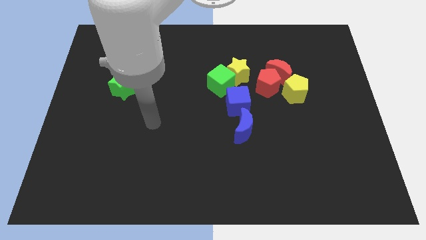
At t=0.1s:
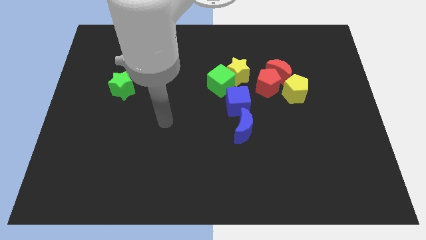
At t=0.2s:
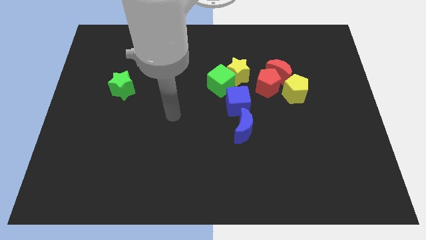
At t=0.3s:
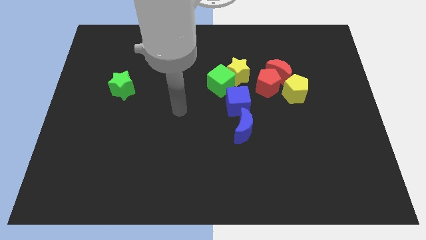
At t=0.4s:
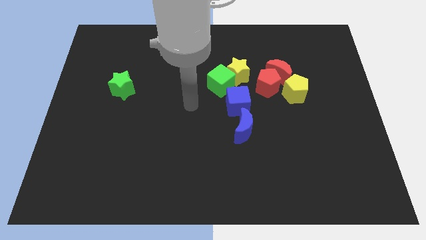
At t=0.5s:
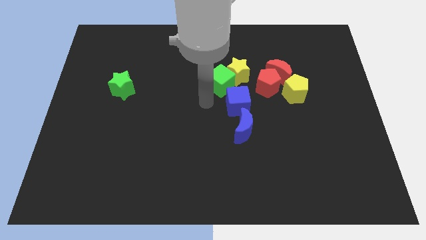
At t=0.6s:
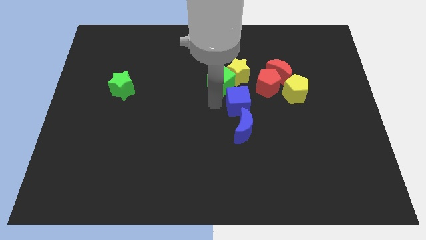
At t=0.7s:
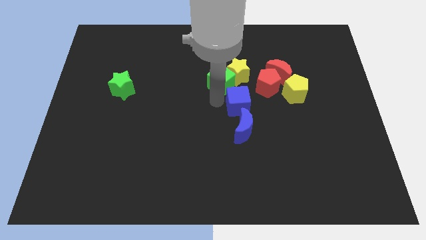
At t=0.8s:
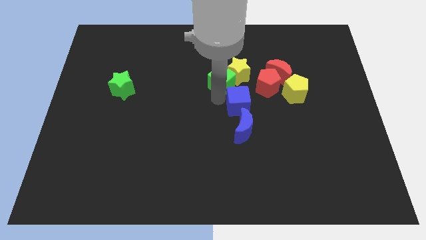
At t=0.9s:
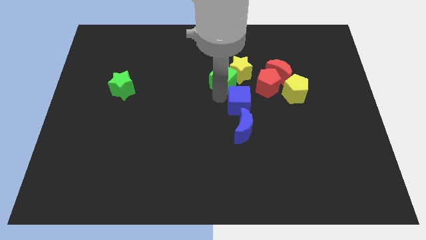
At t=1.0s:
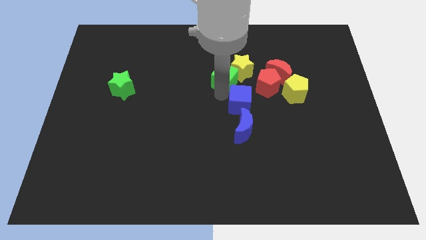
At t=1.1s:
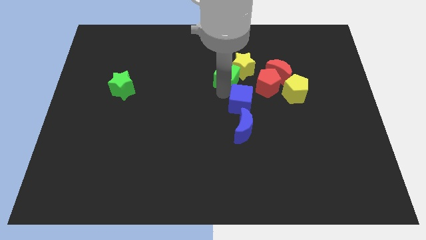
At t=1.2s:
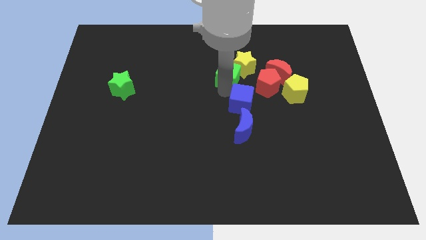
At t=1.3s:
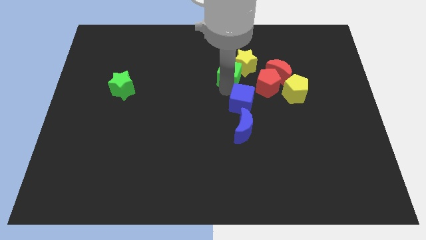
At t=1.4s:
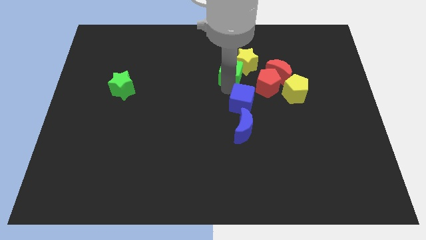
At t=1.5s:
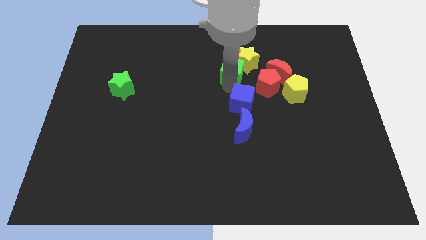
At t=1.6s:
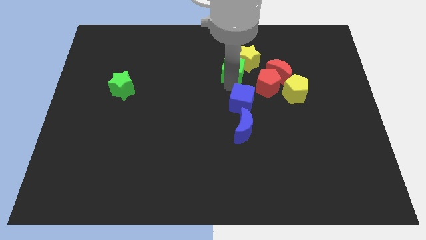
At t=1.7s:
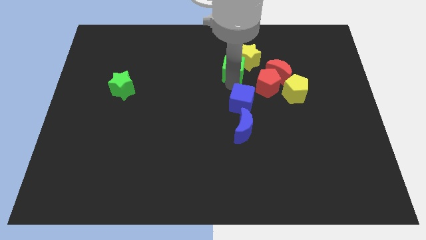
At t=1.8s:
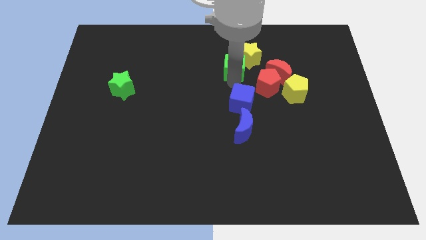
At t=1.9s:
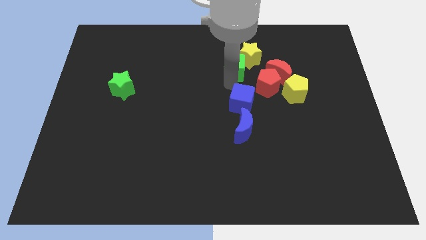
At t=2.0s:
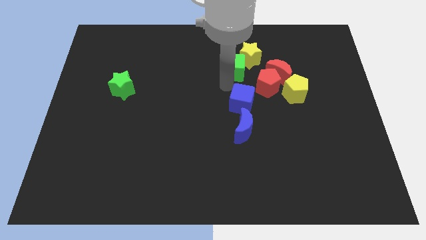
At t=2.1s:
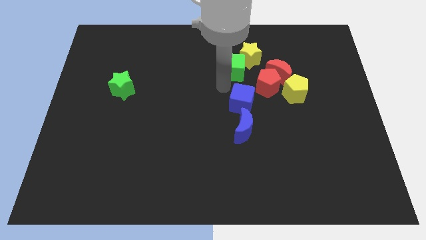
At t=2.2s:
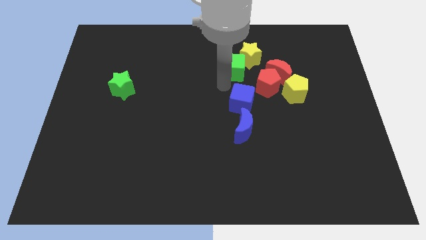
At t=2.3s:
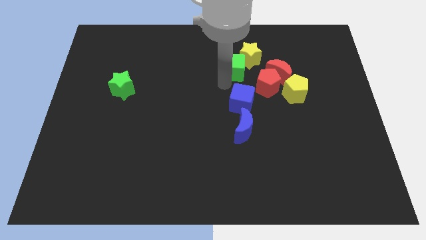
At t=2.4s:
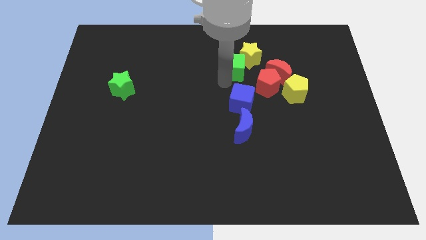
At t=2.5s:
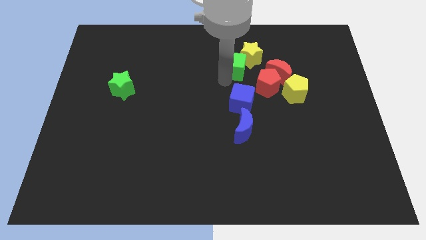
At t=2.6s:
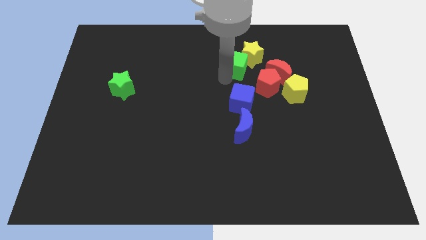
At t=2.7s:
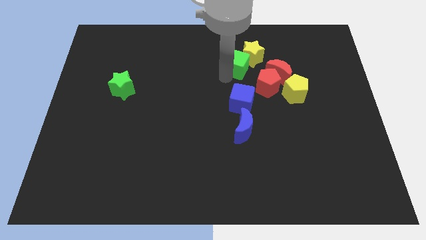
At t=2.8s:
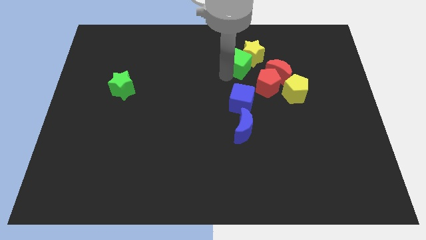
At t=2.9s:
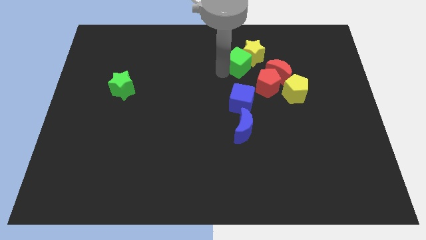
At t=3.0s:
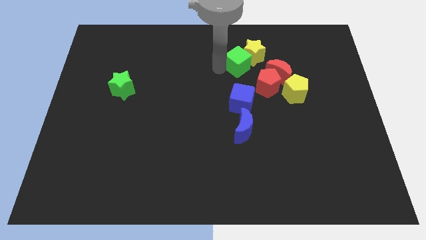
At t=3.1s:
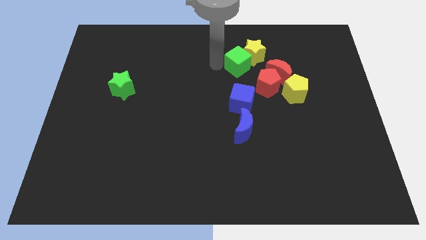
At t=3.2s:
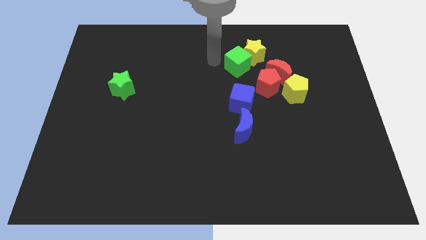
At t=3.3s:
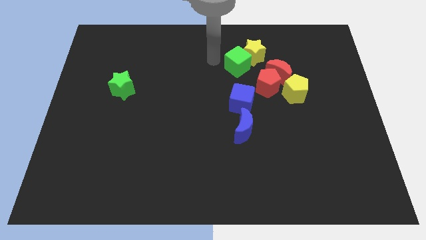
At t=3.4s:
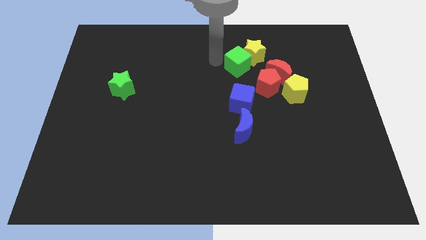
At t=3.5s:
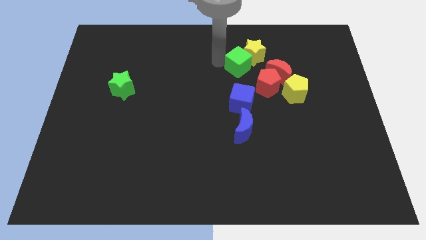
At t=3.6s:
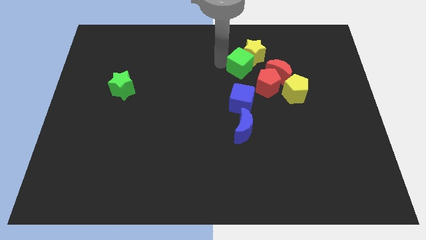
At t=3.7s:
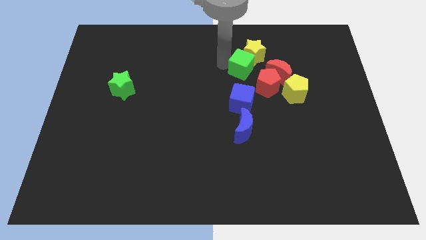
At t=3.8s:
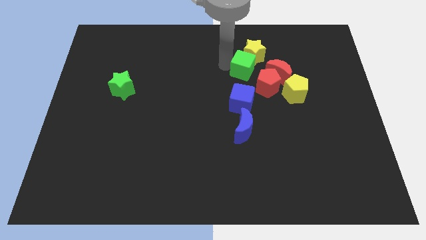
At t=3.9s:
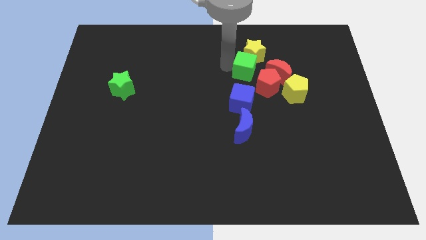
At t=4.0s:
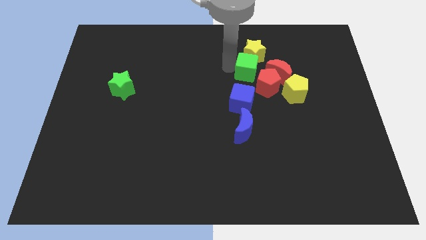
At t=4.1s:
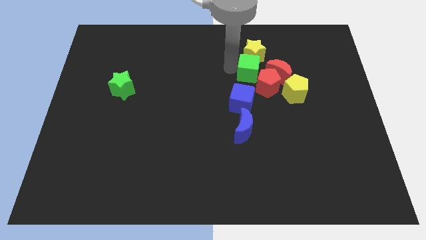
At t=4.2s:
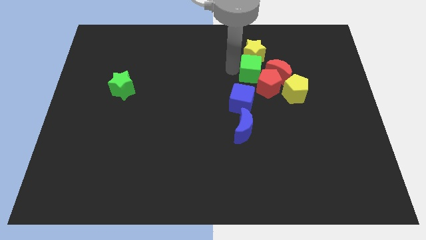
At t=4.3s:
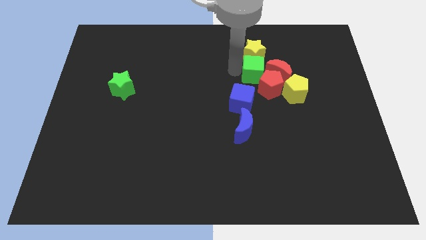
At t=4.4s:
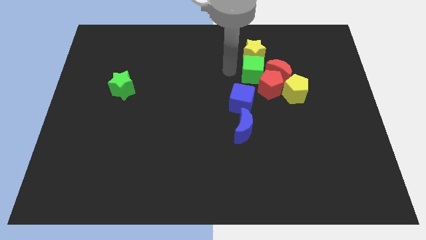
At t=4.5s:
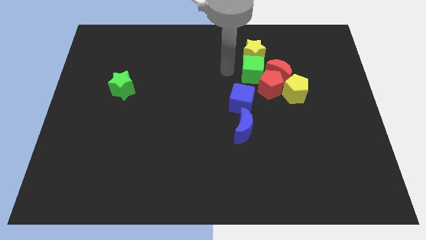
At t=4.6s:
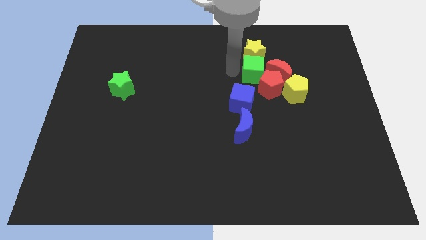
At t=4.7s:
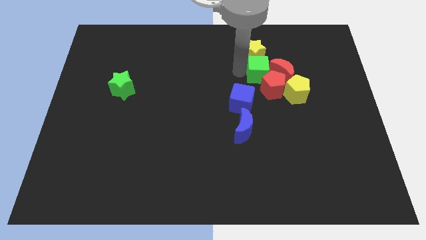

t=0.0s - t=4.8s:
move the green cube to the red moon

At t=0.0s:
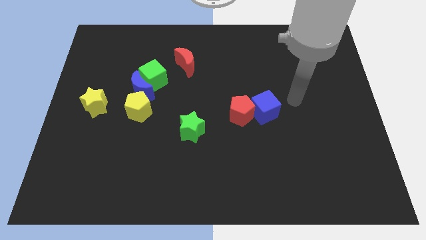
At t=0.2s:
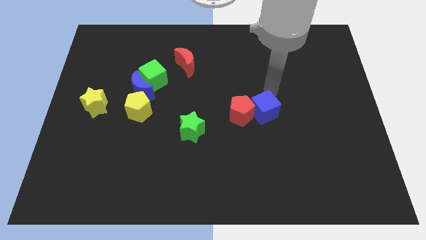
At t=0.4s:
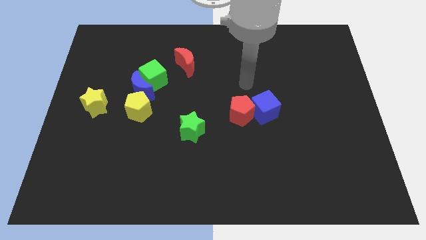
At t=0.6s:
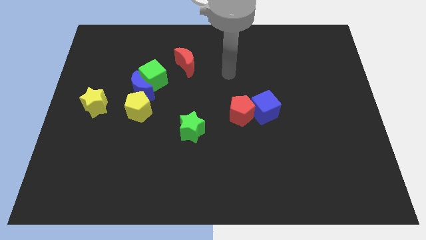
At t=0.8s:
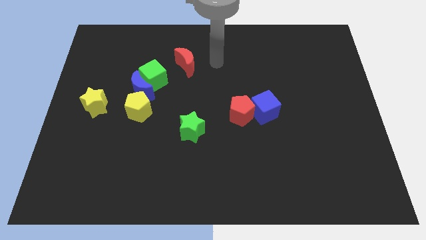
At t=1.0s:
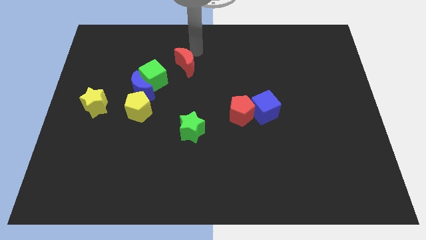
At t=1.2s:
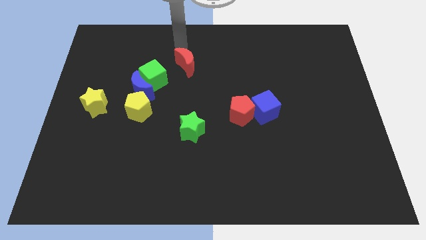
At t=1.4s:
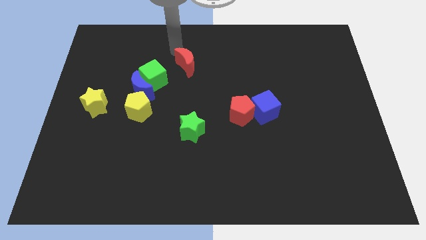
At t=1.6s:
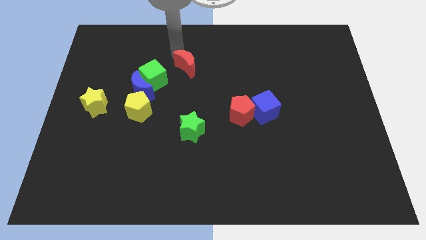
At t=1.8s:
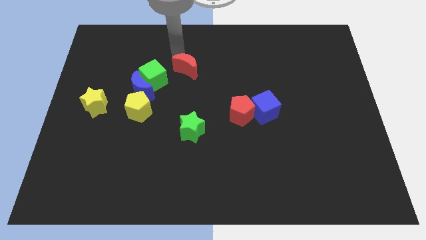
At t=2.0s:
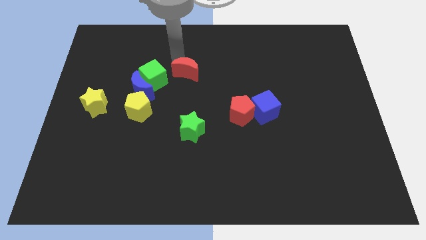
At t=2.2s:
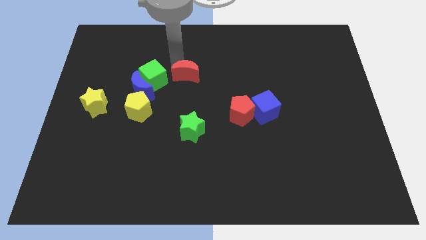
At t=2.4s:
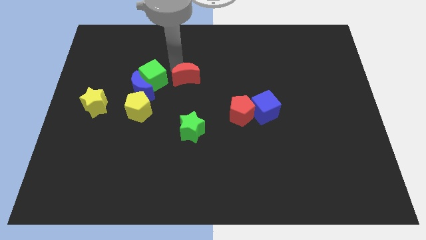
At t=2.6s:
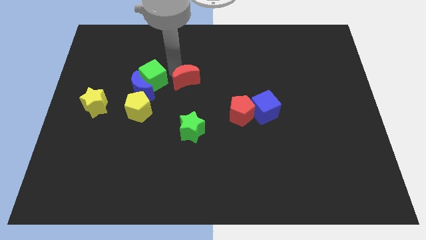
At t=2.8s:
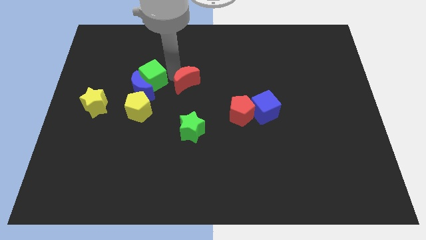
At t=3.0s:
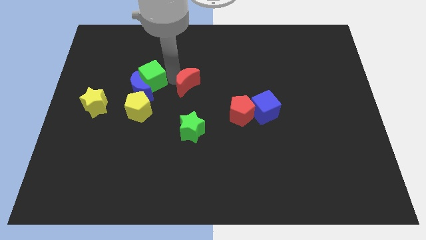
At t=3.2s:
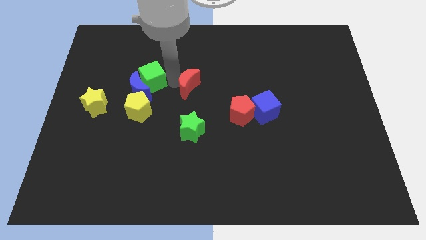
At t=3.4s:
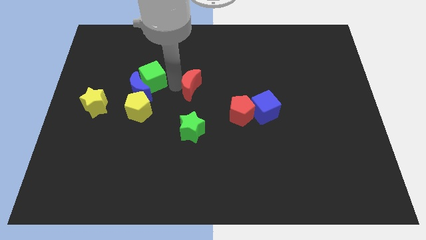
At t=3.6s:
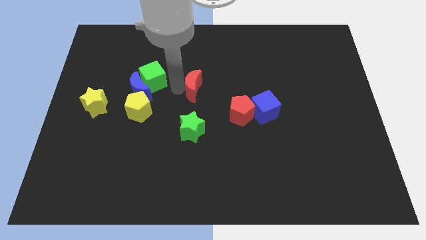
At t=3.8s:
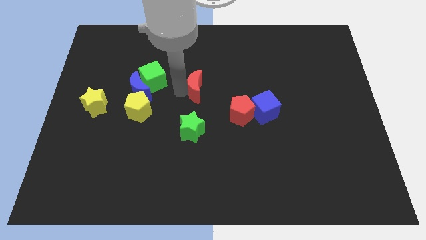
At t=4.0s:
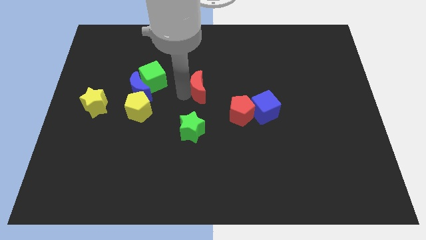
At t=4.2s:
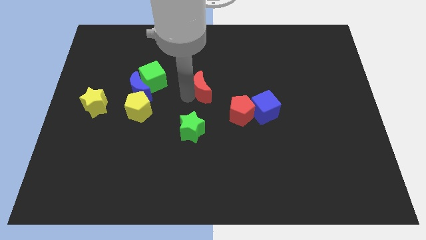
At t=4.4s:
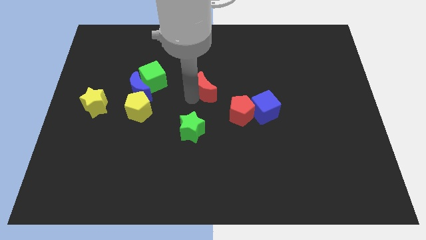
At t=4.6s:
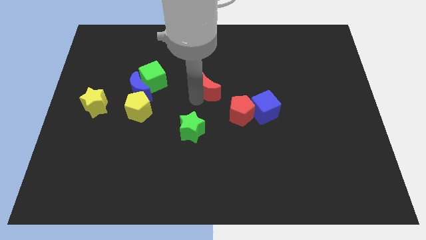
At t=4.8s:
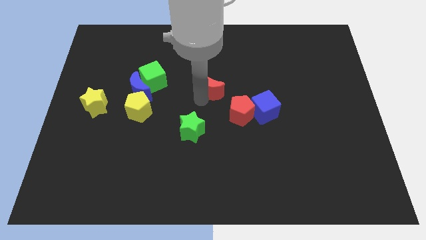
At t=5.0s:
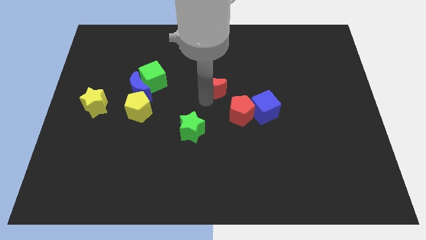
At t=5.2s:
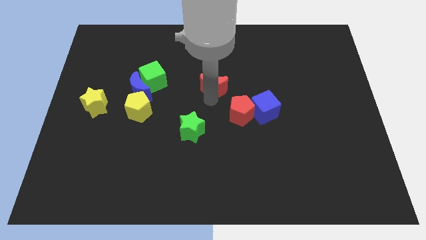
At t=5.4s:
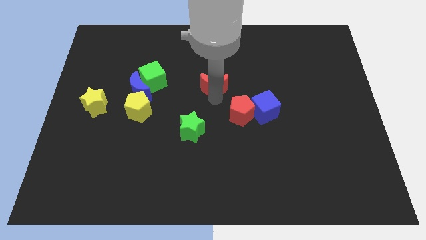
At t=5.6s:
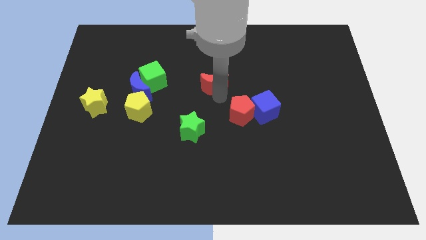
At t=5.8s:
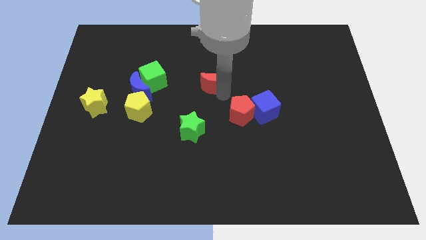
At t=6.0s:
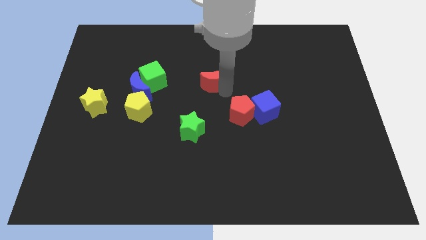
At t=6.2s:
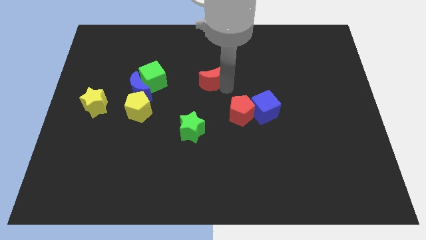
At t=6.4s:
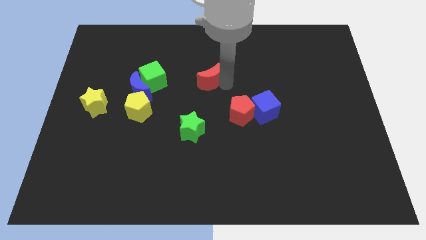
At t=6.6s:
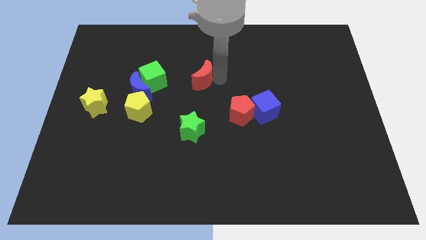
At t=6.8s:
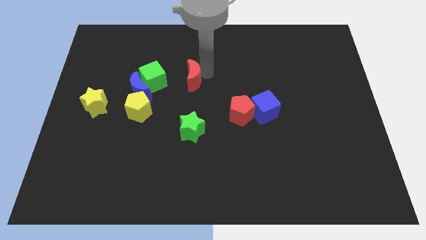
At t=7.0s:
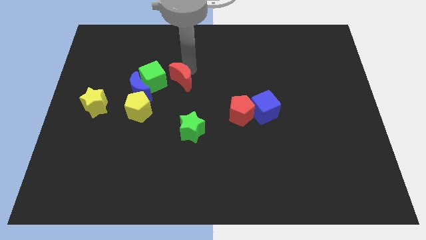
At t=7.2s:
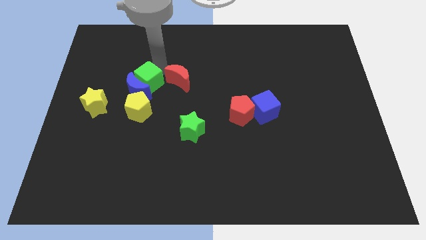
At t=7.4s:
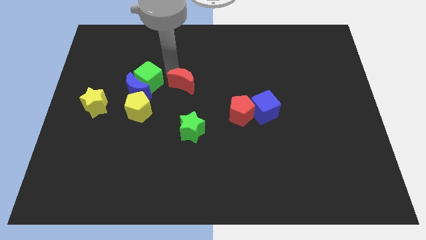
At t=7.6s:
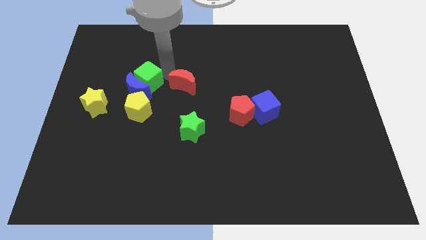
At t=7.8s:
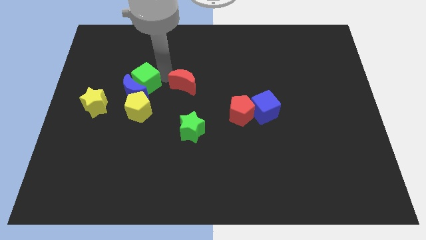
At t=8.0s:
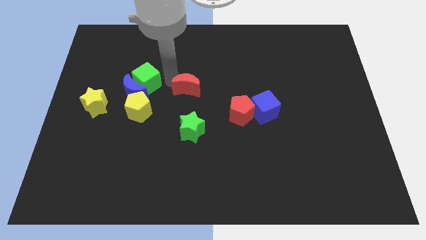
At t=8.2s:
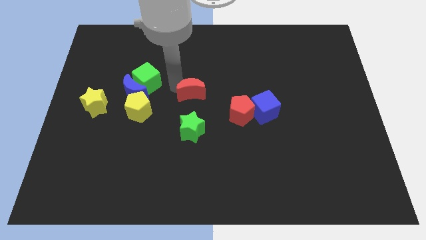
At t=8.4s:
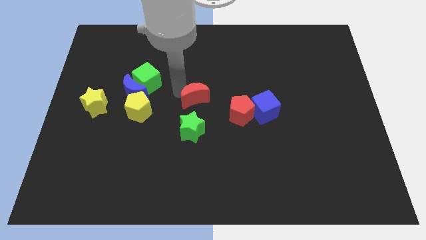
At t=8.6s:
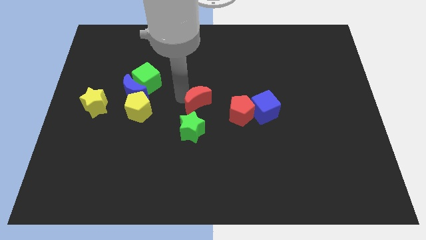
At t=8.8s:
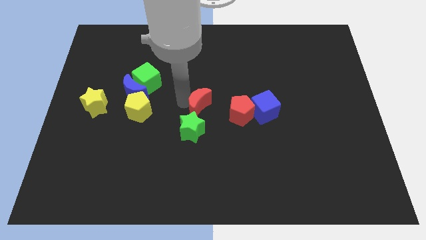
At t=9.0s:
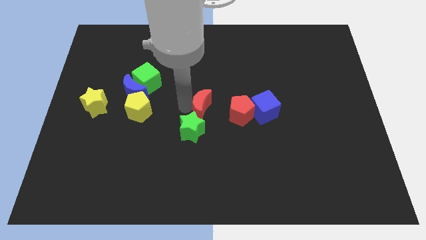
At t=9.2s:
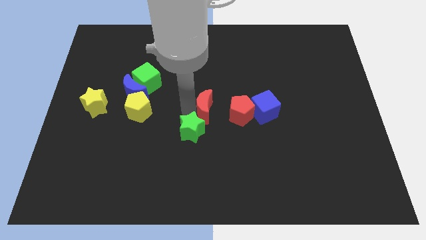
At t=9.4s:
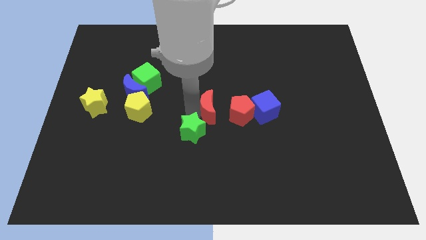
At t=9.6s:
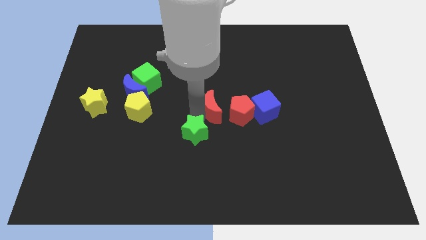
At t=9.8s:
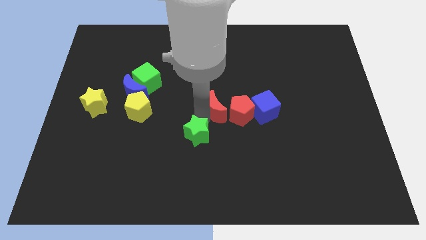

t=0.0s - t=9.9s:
slide the red moon close to the red pentagon
